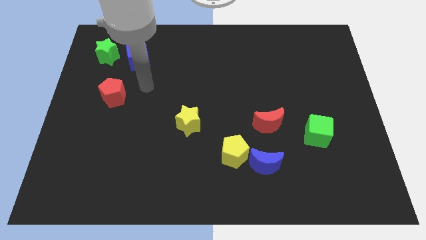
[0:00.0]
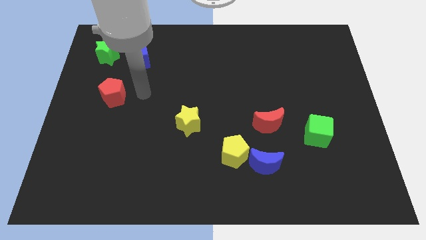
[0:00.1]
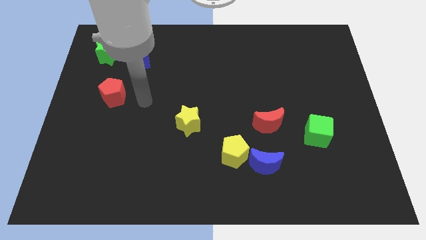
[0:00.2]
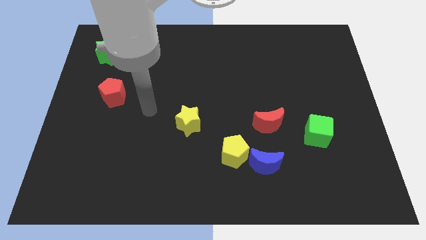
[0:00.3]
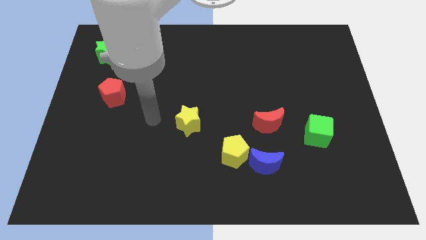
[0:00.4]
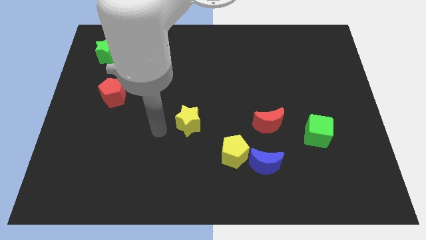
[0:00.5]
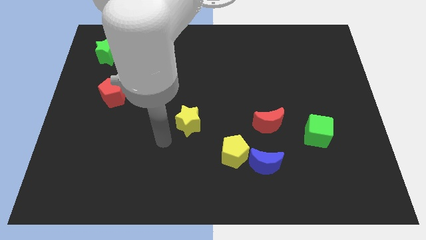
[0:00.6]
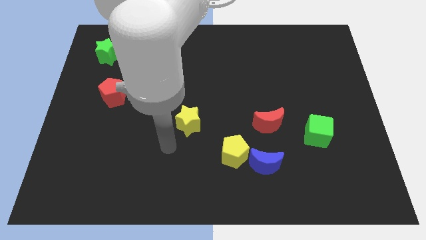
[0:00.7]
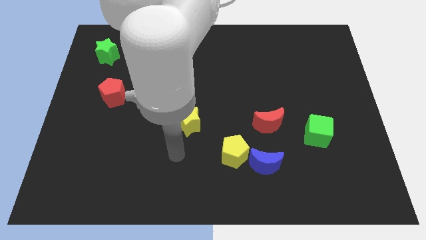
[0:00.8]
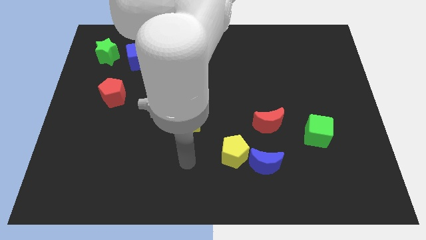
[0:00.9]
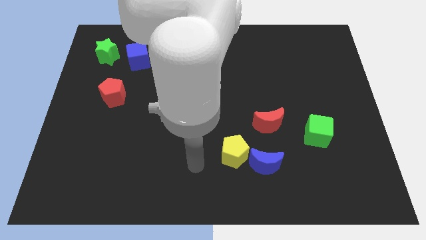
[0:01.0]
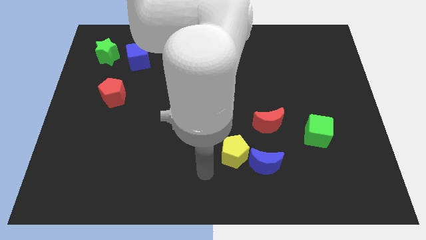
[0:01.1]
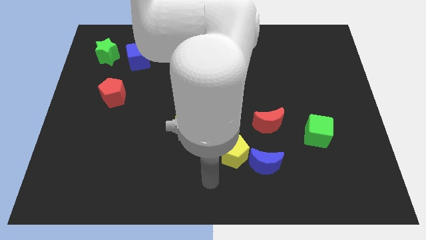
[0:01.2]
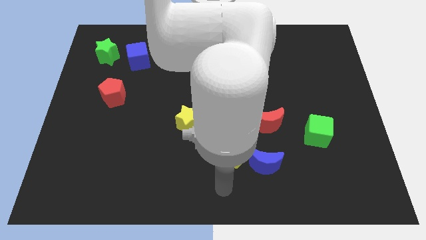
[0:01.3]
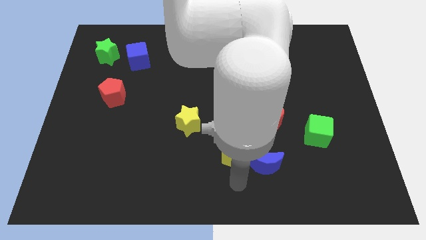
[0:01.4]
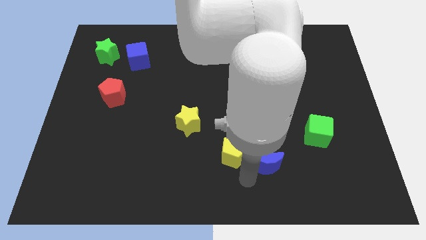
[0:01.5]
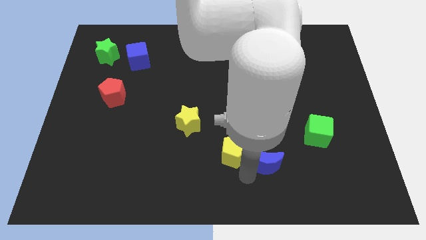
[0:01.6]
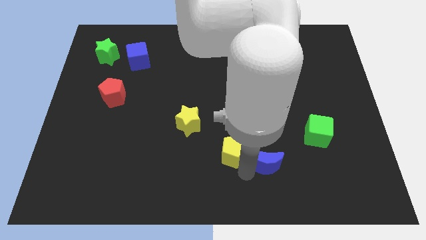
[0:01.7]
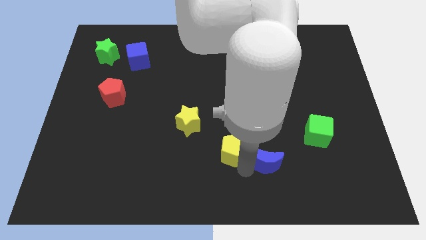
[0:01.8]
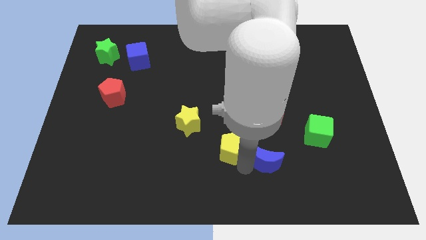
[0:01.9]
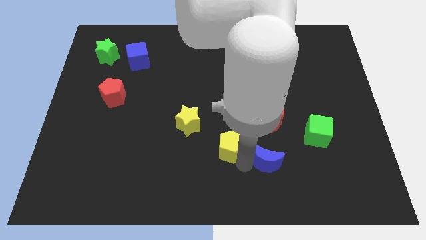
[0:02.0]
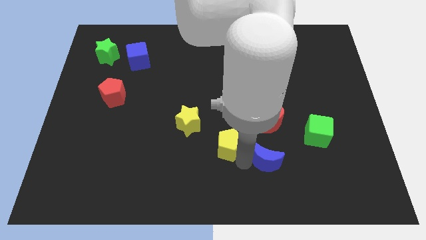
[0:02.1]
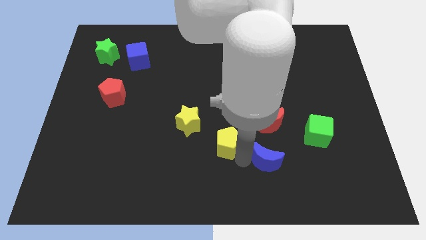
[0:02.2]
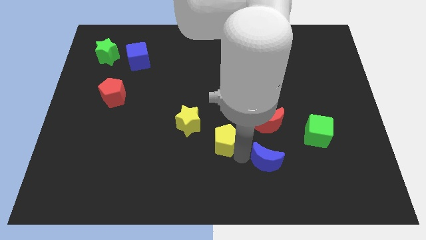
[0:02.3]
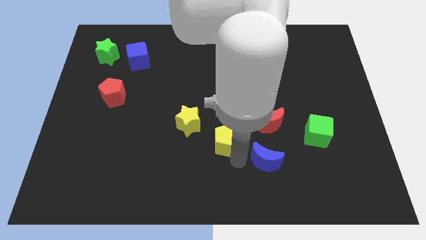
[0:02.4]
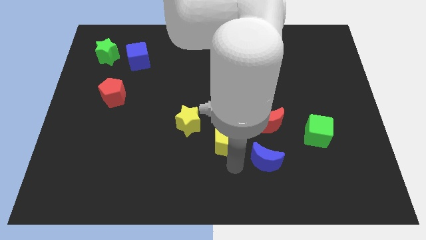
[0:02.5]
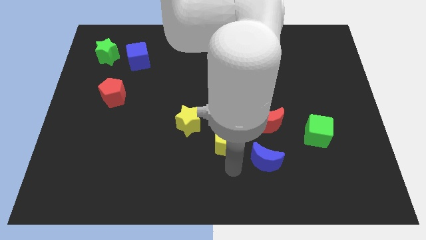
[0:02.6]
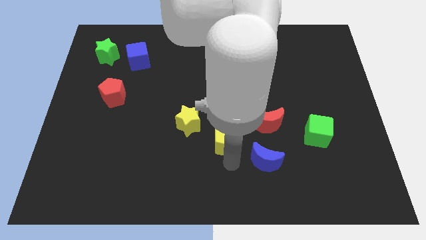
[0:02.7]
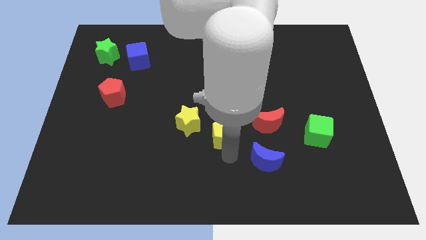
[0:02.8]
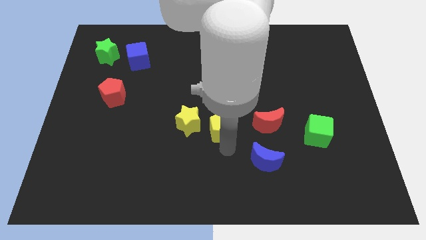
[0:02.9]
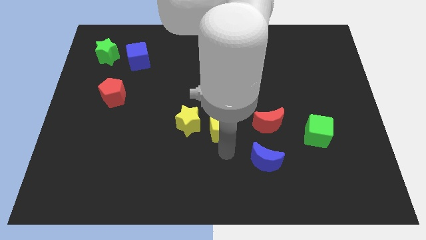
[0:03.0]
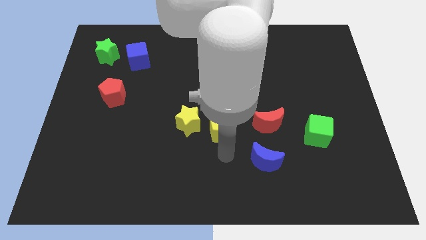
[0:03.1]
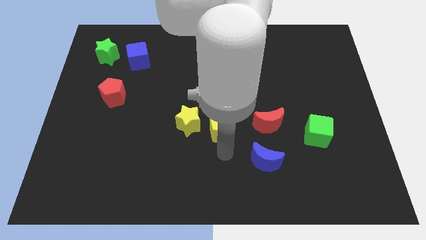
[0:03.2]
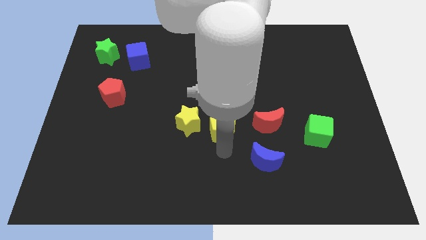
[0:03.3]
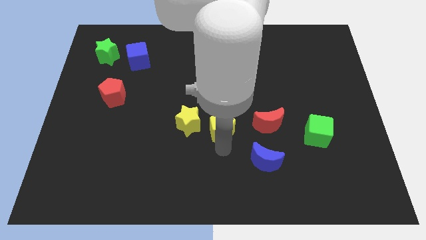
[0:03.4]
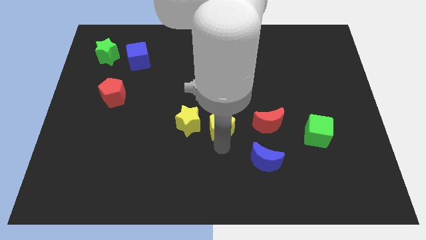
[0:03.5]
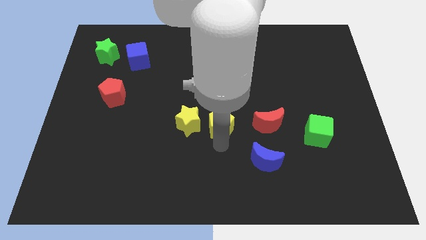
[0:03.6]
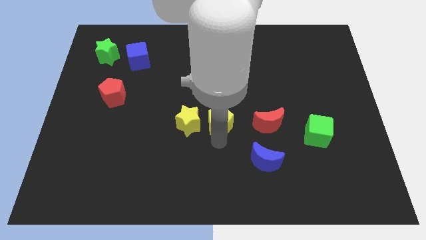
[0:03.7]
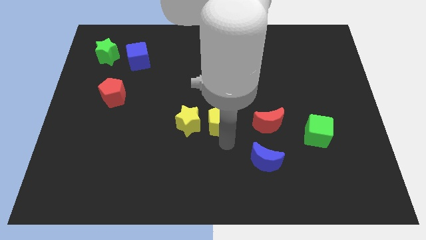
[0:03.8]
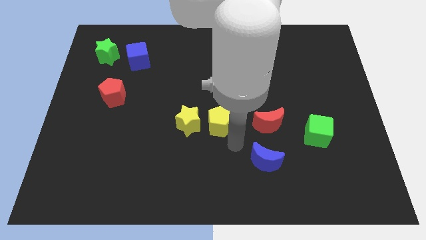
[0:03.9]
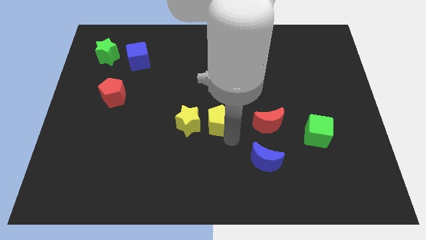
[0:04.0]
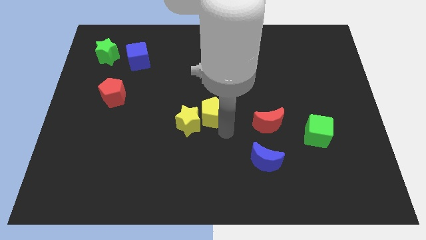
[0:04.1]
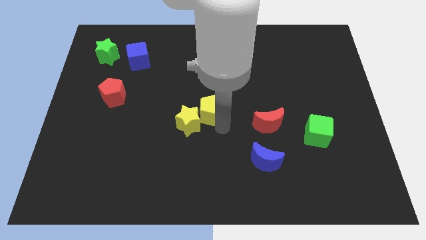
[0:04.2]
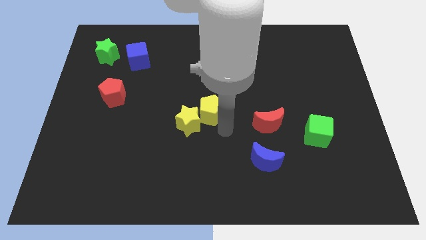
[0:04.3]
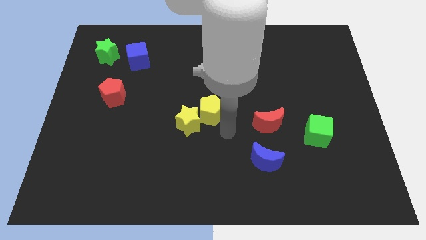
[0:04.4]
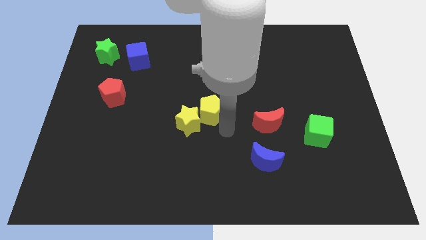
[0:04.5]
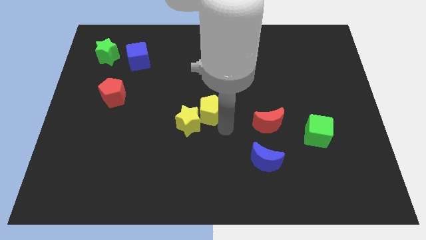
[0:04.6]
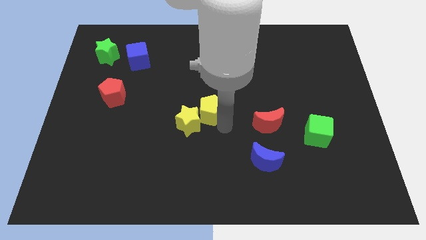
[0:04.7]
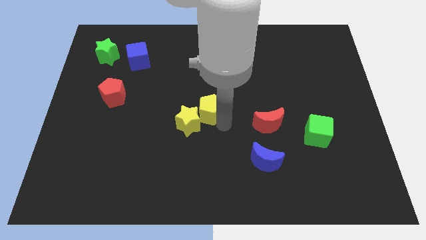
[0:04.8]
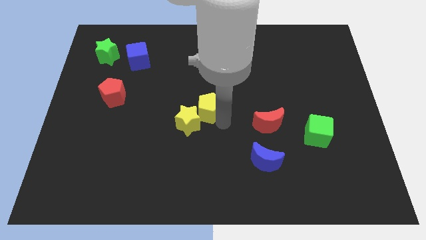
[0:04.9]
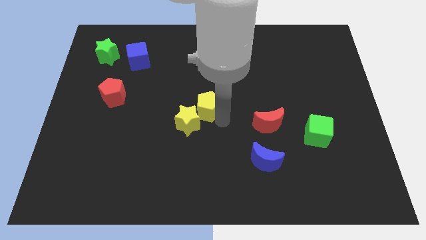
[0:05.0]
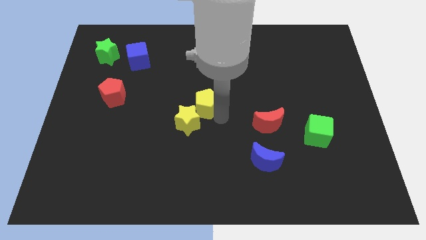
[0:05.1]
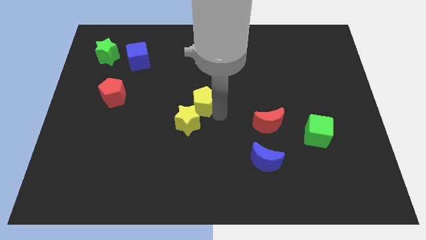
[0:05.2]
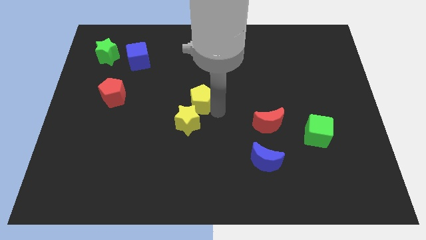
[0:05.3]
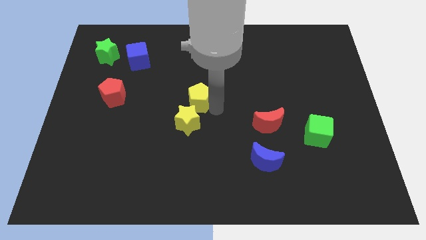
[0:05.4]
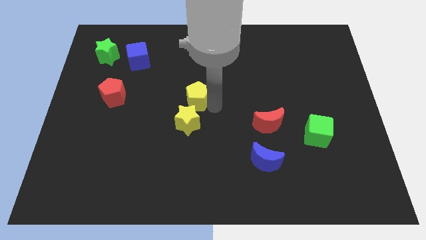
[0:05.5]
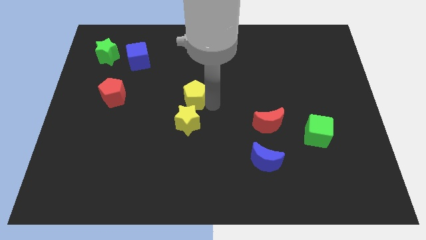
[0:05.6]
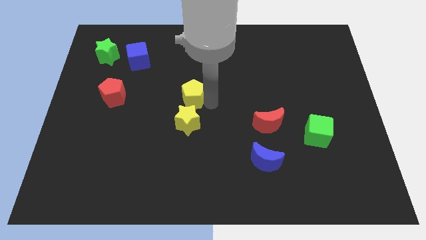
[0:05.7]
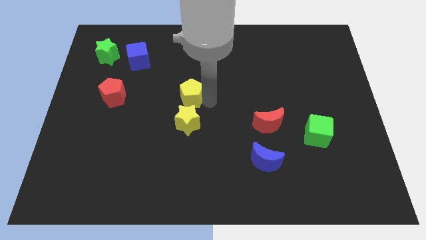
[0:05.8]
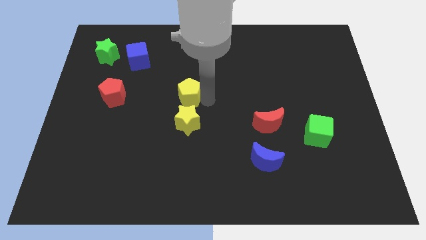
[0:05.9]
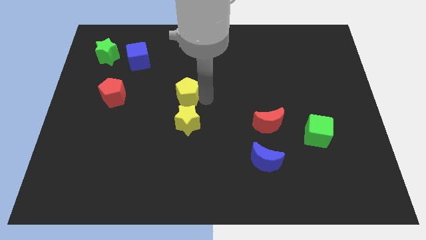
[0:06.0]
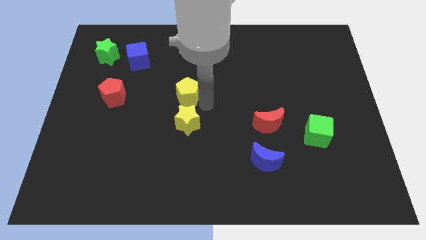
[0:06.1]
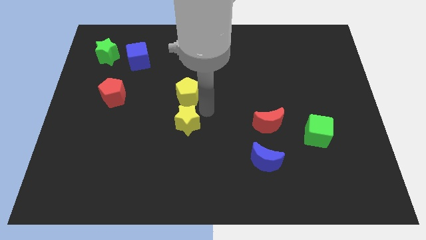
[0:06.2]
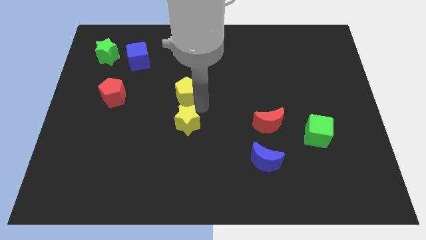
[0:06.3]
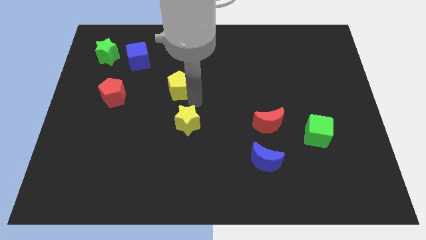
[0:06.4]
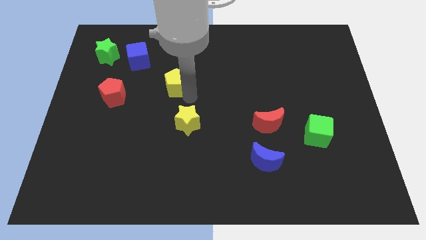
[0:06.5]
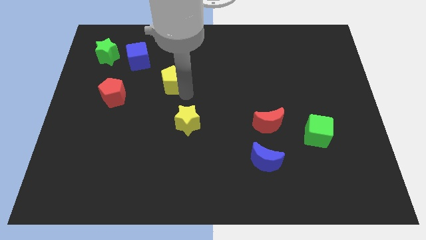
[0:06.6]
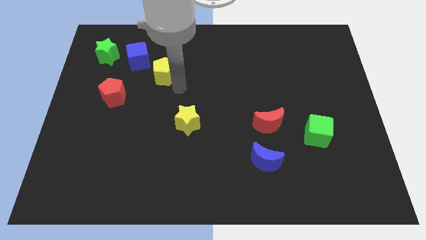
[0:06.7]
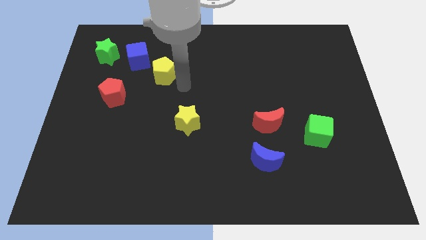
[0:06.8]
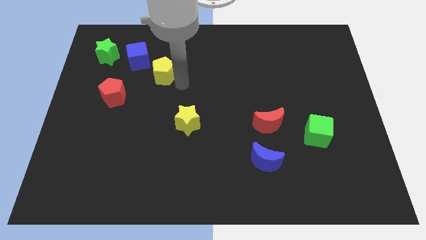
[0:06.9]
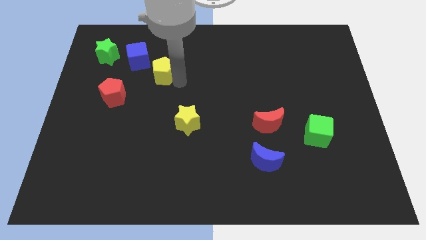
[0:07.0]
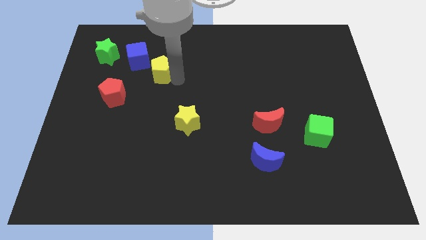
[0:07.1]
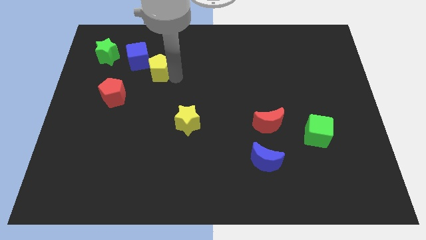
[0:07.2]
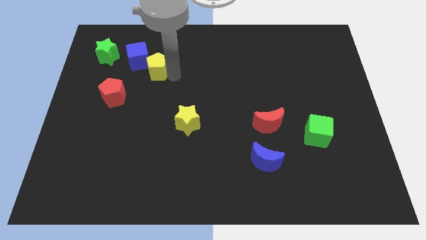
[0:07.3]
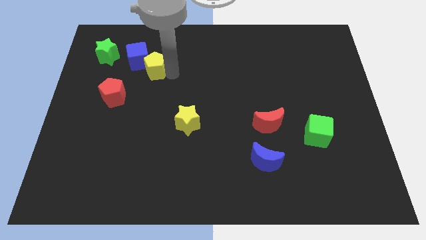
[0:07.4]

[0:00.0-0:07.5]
move the yellow pentagon towards the blue cube

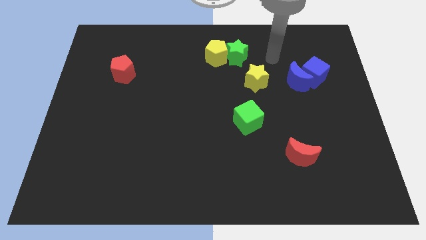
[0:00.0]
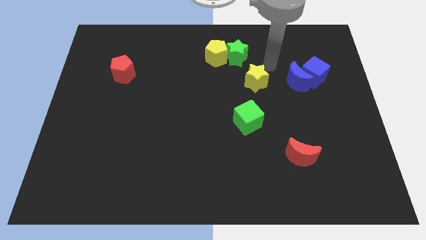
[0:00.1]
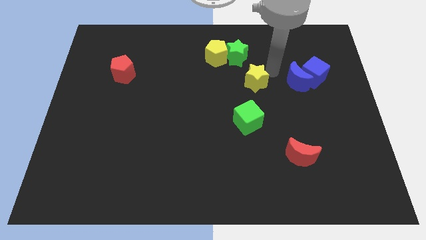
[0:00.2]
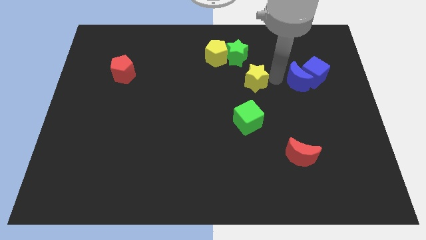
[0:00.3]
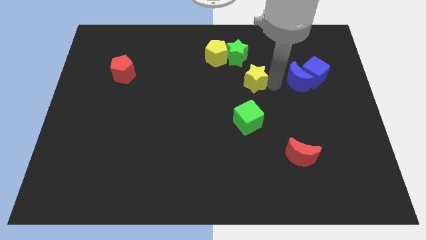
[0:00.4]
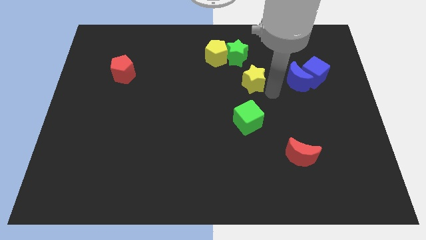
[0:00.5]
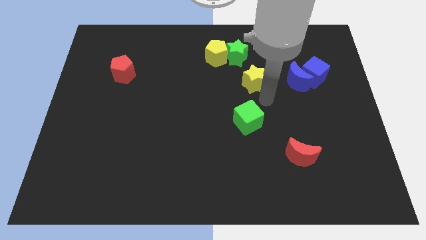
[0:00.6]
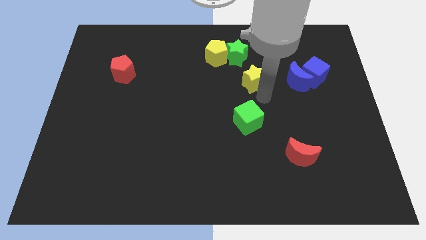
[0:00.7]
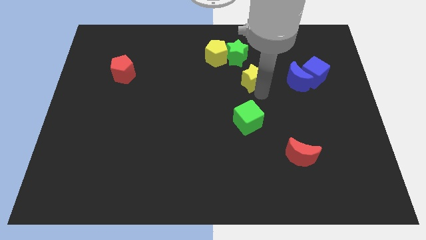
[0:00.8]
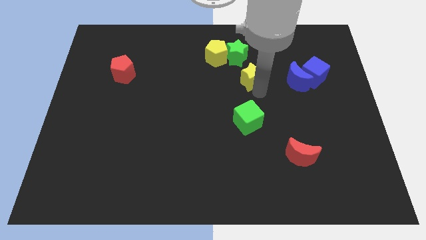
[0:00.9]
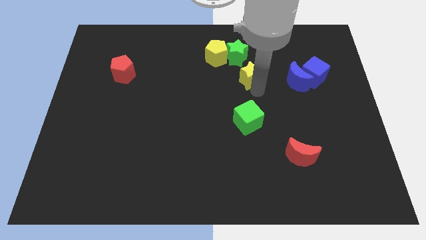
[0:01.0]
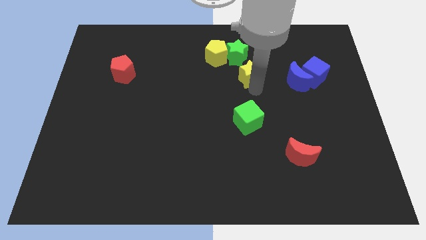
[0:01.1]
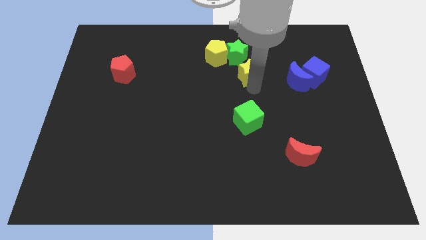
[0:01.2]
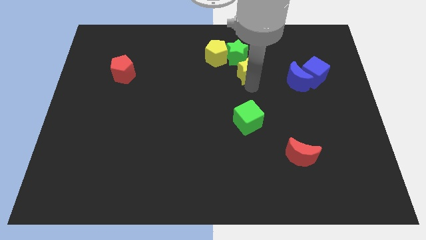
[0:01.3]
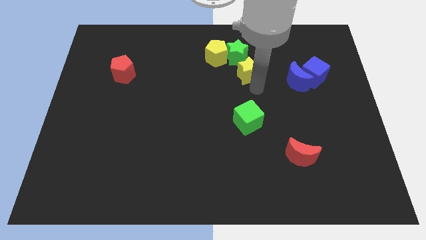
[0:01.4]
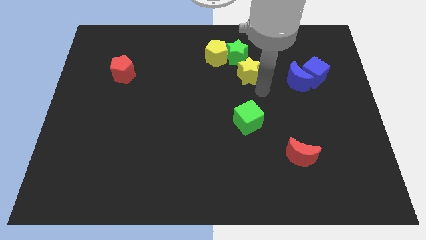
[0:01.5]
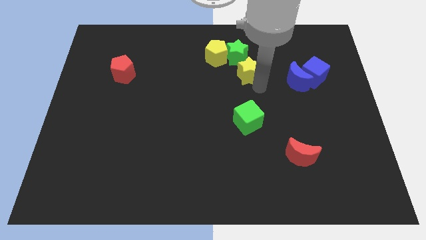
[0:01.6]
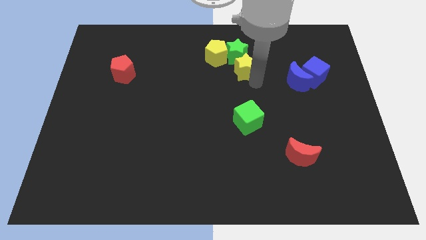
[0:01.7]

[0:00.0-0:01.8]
slide the yellow star next to the green star
